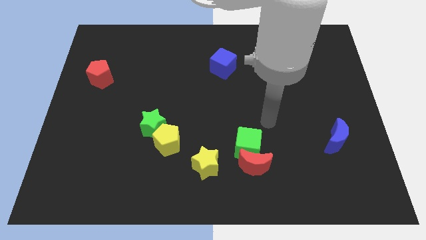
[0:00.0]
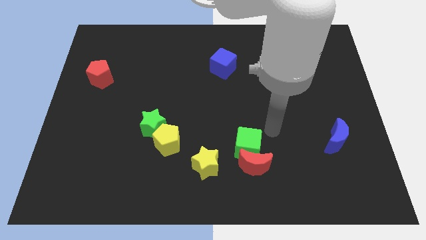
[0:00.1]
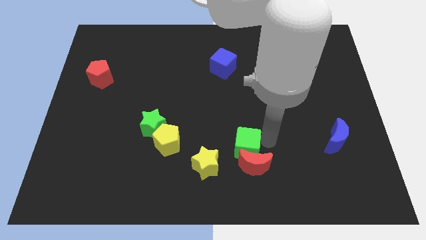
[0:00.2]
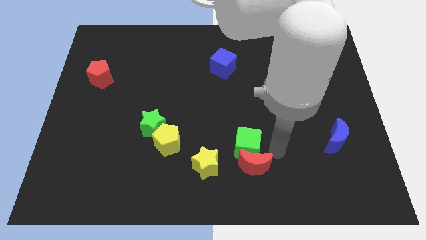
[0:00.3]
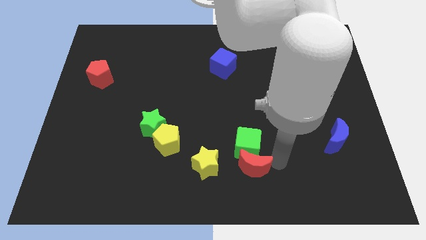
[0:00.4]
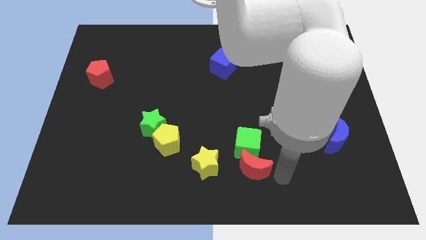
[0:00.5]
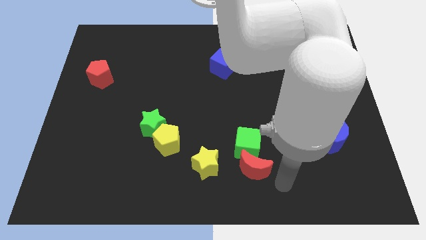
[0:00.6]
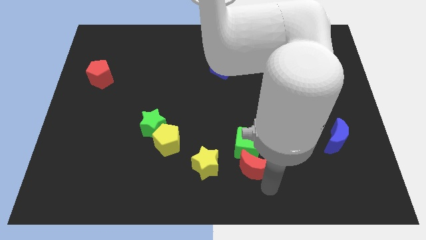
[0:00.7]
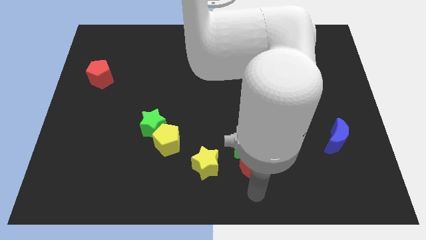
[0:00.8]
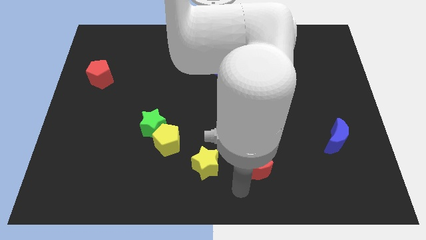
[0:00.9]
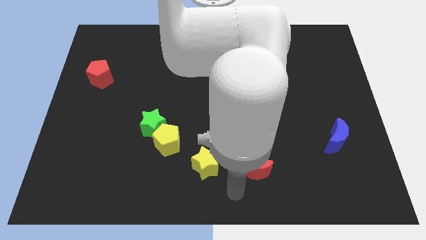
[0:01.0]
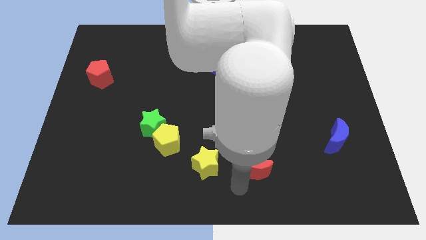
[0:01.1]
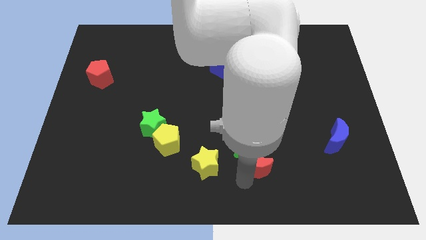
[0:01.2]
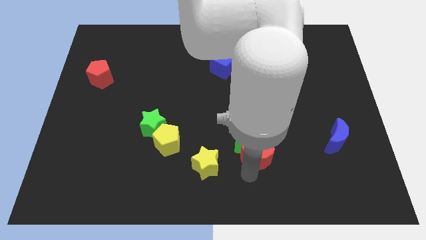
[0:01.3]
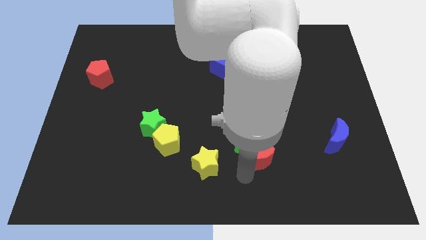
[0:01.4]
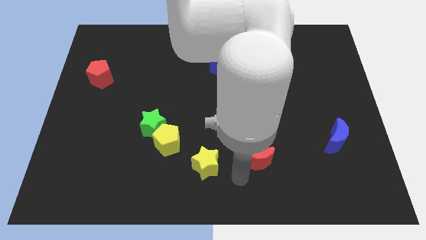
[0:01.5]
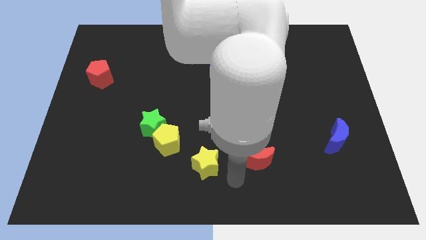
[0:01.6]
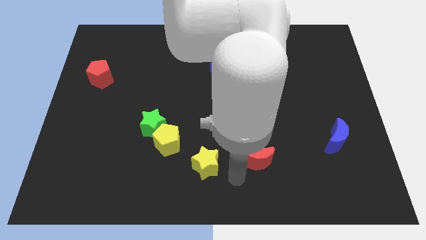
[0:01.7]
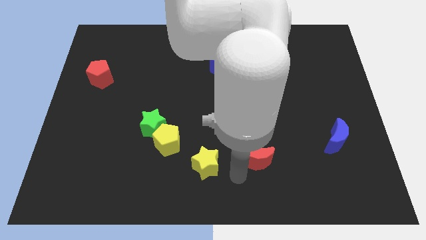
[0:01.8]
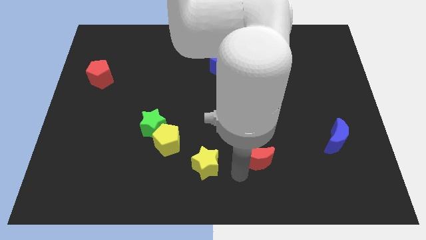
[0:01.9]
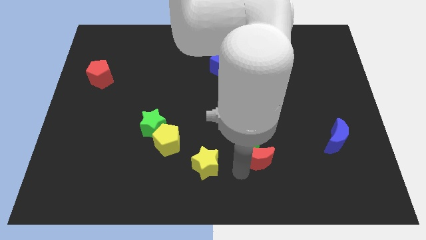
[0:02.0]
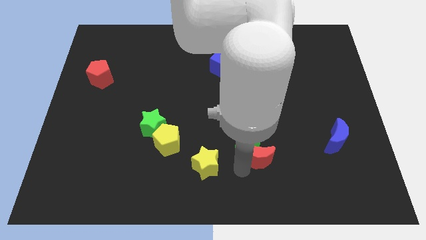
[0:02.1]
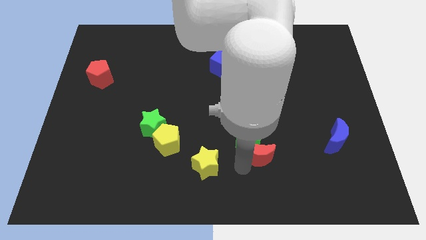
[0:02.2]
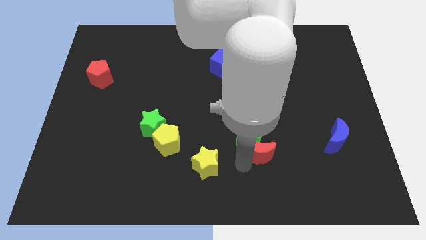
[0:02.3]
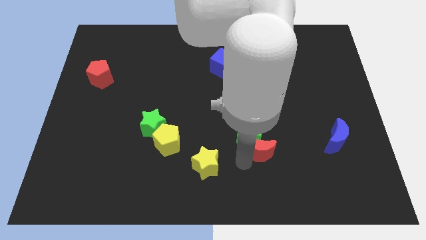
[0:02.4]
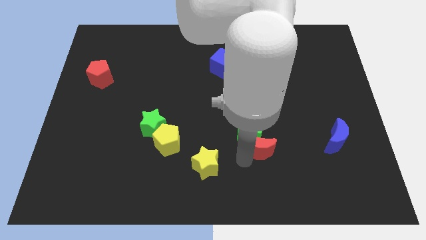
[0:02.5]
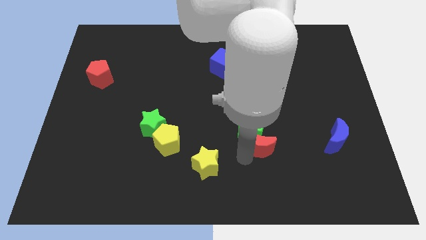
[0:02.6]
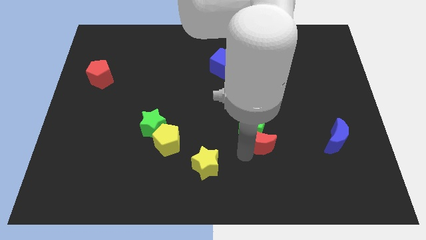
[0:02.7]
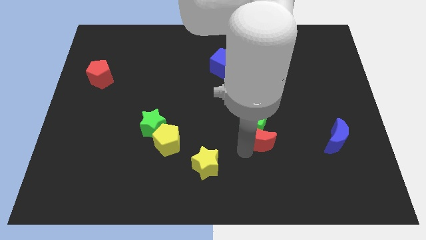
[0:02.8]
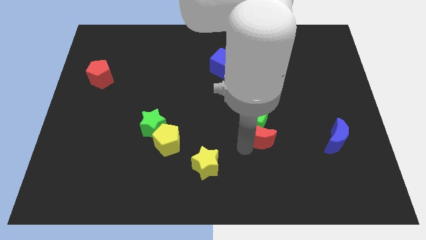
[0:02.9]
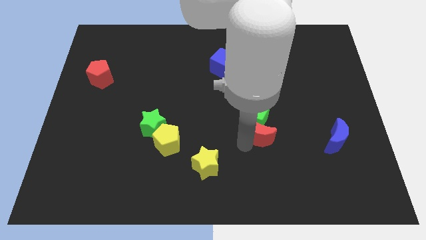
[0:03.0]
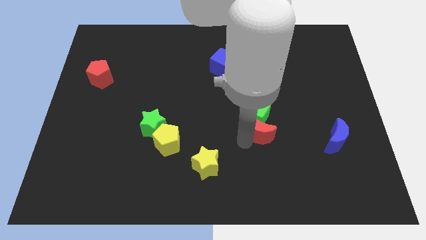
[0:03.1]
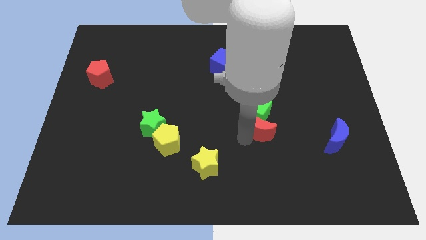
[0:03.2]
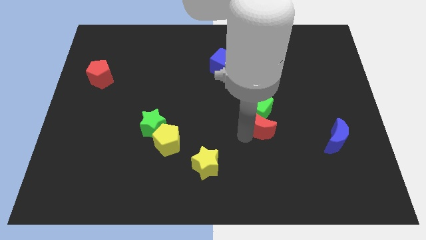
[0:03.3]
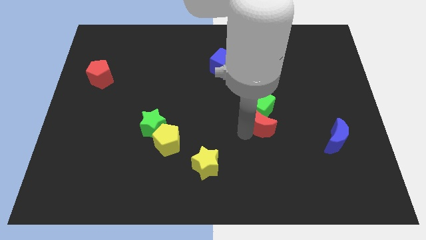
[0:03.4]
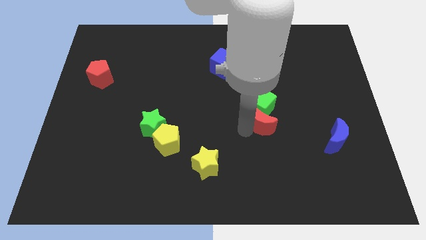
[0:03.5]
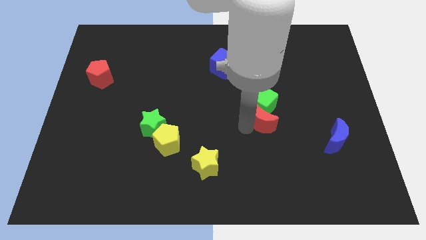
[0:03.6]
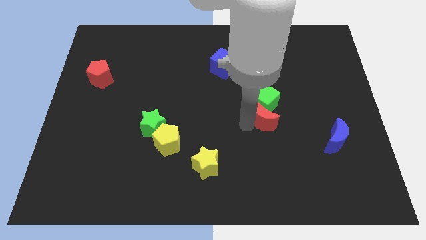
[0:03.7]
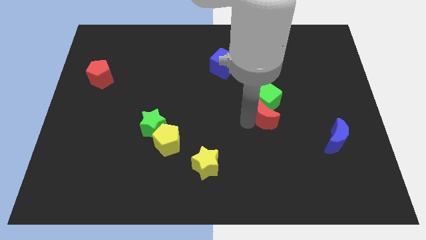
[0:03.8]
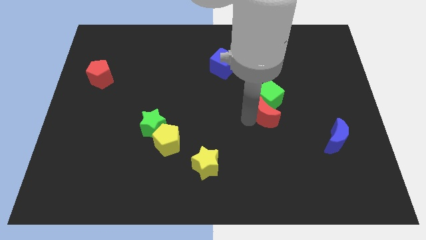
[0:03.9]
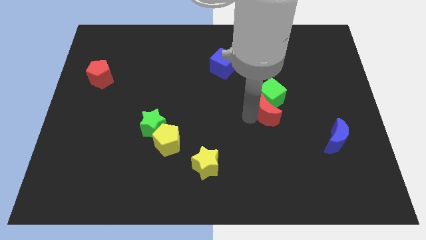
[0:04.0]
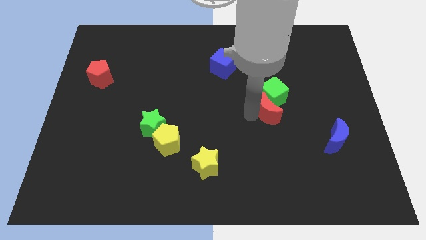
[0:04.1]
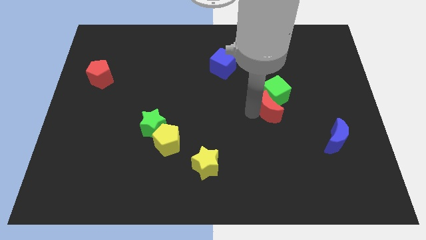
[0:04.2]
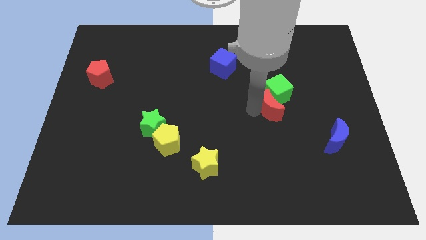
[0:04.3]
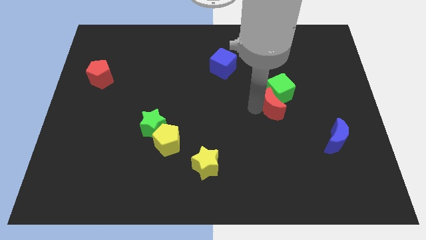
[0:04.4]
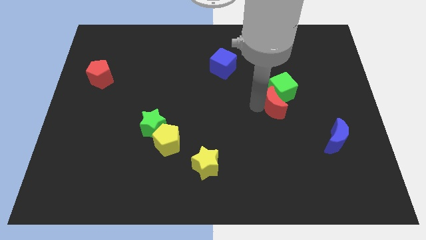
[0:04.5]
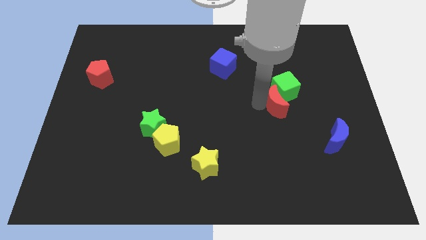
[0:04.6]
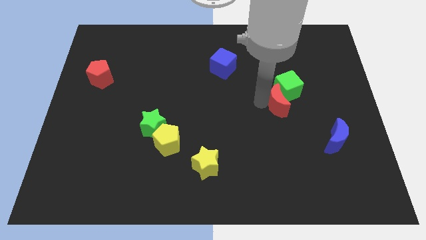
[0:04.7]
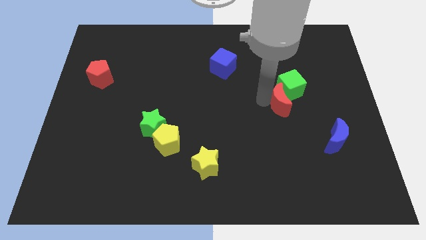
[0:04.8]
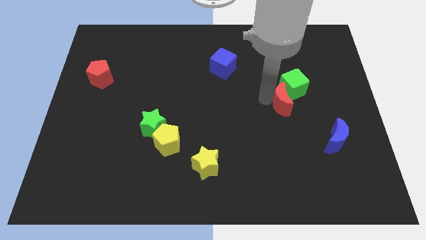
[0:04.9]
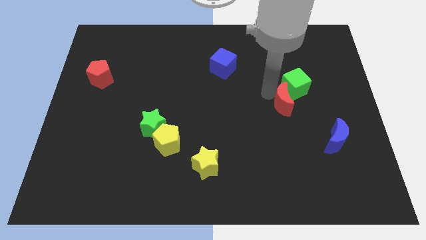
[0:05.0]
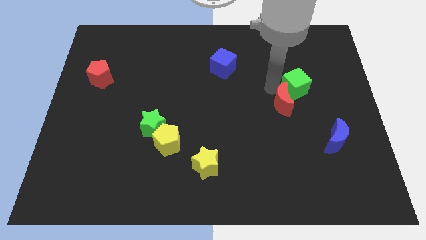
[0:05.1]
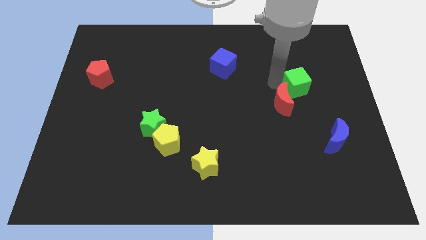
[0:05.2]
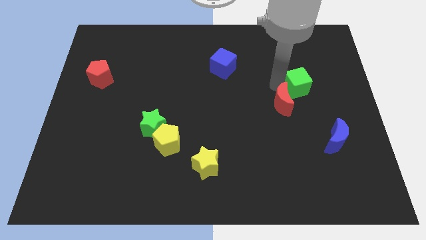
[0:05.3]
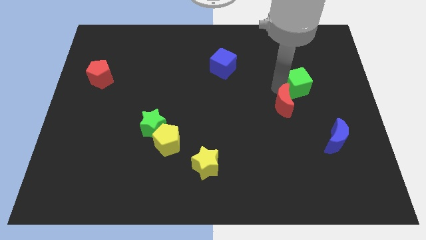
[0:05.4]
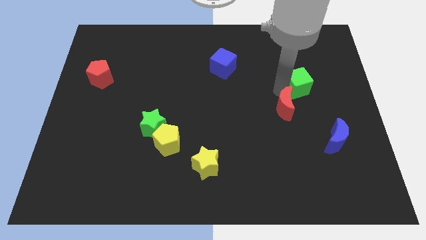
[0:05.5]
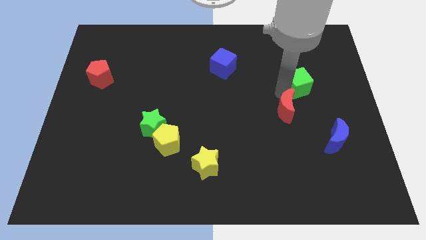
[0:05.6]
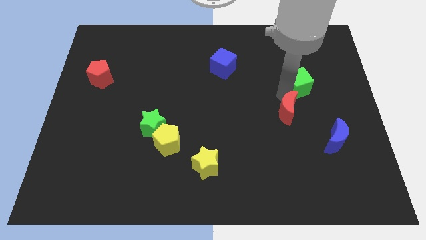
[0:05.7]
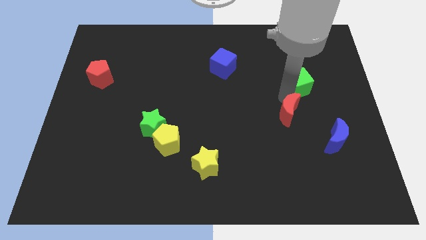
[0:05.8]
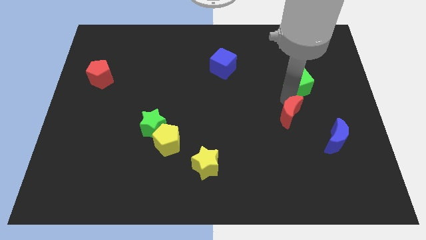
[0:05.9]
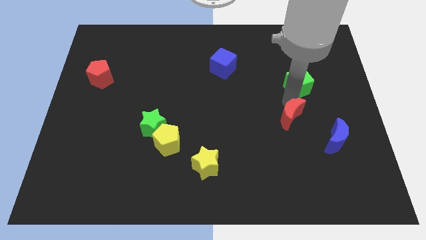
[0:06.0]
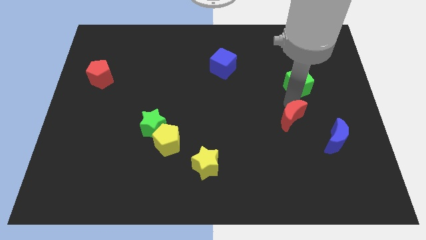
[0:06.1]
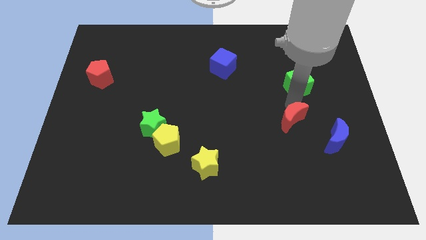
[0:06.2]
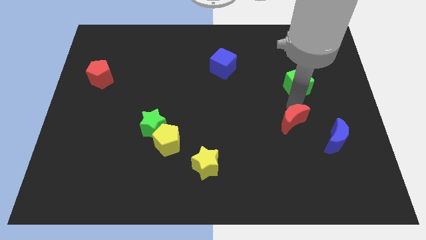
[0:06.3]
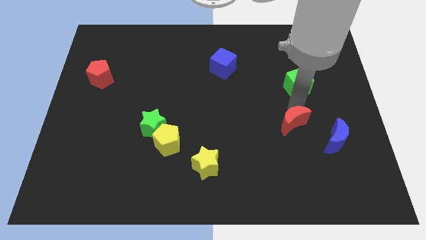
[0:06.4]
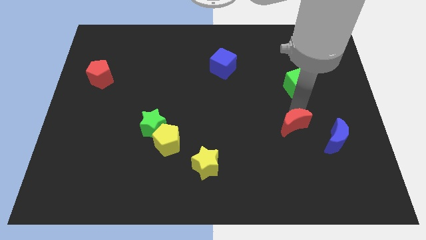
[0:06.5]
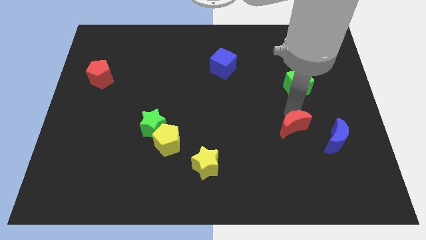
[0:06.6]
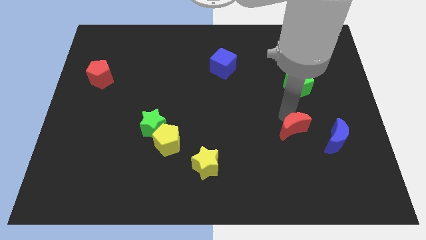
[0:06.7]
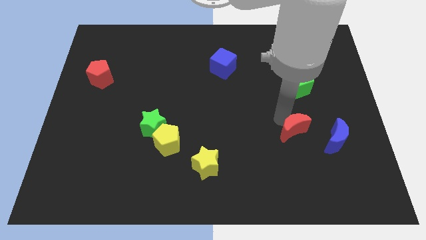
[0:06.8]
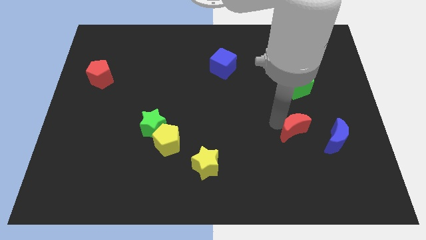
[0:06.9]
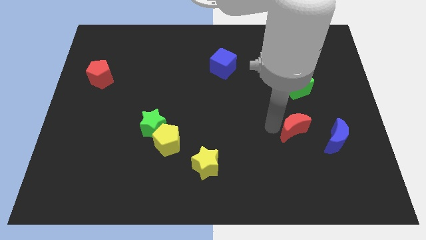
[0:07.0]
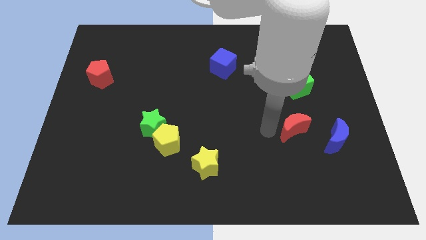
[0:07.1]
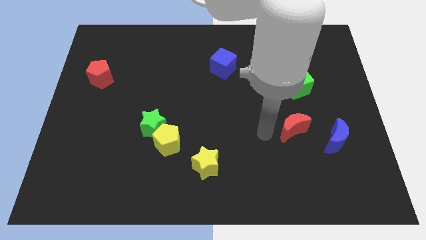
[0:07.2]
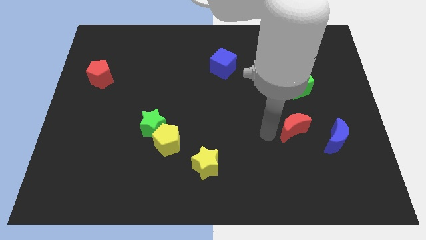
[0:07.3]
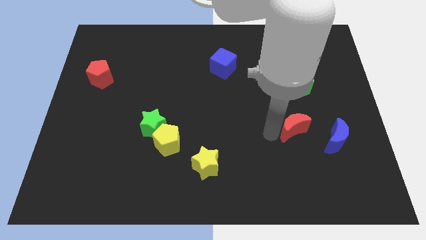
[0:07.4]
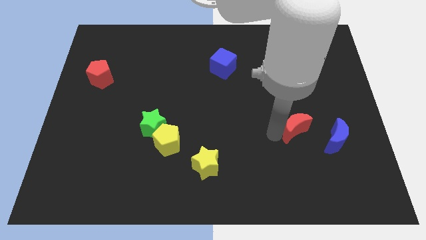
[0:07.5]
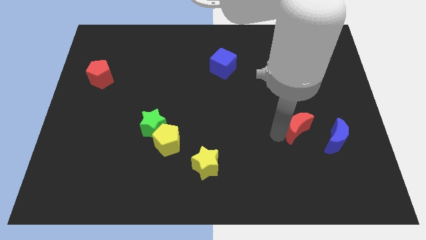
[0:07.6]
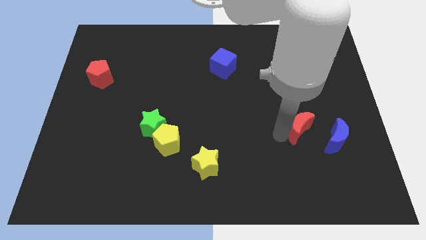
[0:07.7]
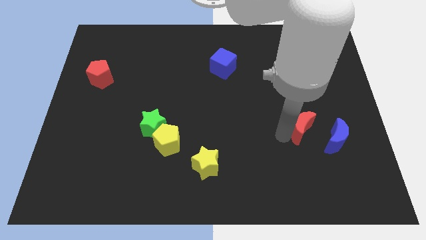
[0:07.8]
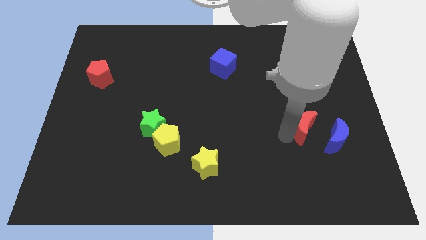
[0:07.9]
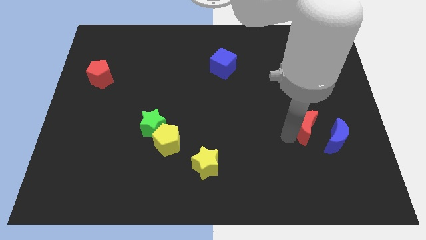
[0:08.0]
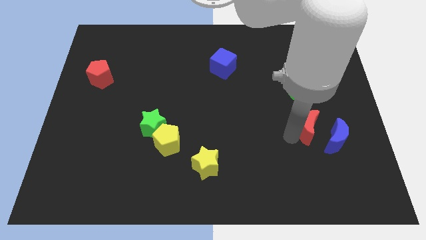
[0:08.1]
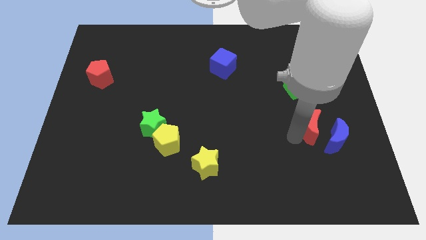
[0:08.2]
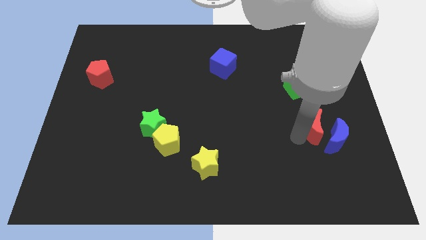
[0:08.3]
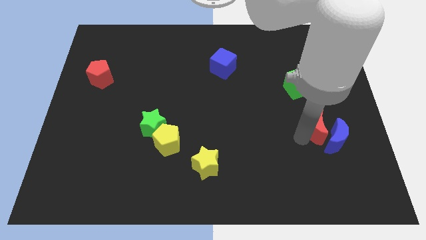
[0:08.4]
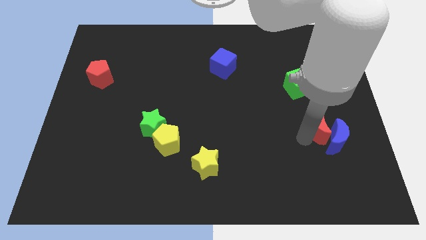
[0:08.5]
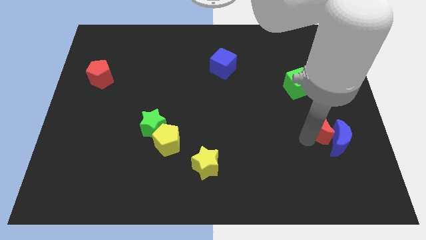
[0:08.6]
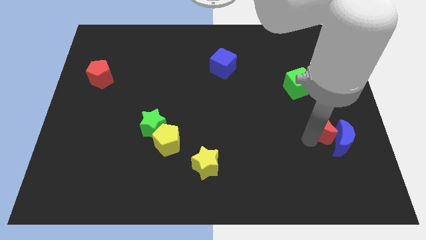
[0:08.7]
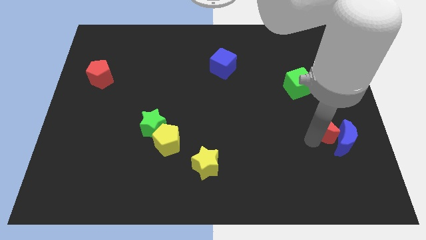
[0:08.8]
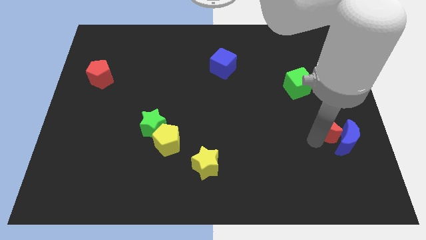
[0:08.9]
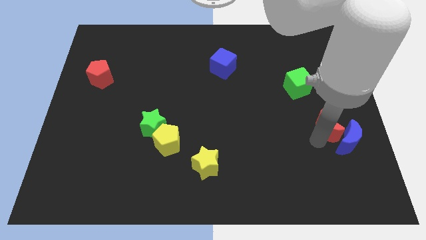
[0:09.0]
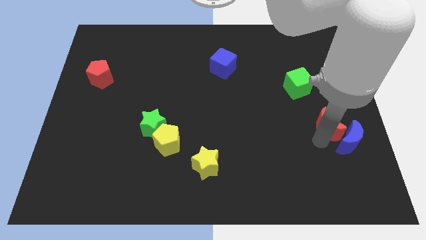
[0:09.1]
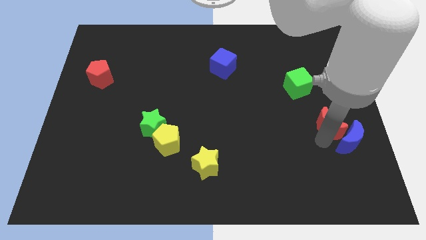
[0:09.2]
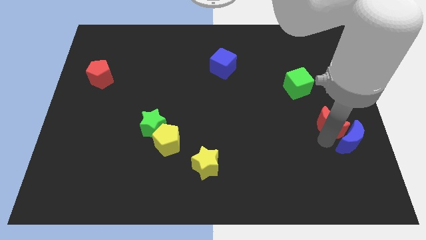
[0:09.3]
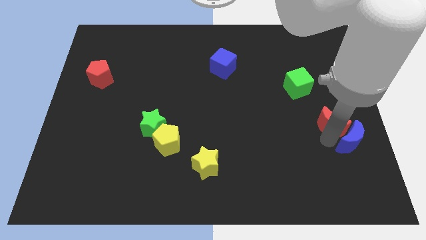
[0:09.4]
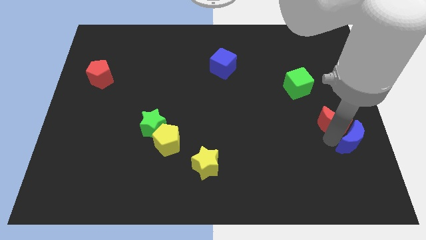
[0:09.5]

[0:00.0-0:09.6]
put the red moon to the center right
